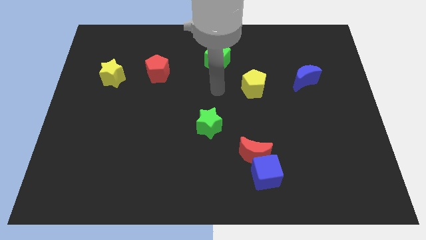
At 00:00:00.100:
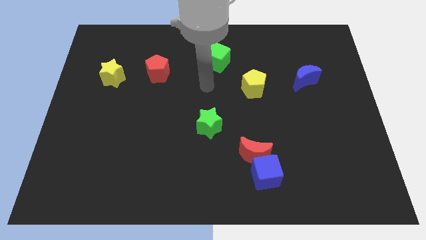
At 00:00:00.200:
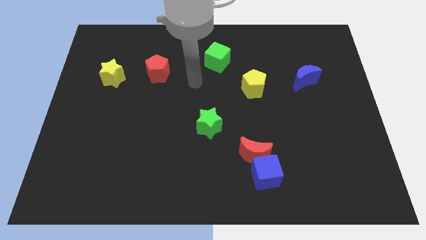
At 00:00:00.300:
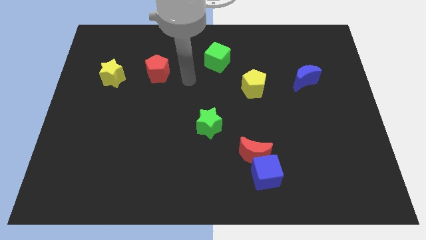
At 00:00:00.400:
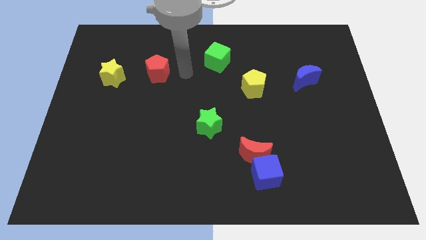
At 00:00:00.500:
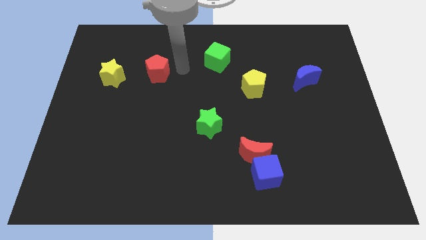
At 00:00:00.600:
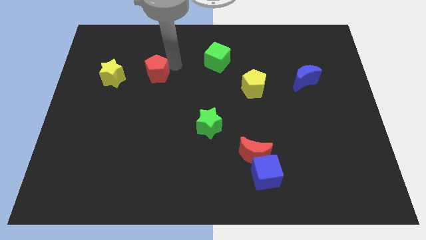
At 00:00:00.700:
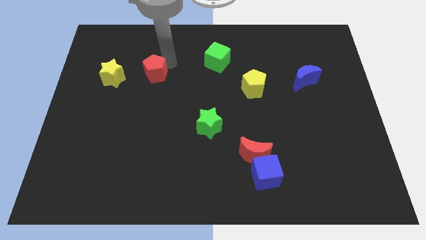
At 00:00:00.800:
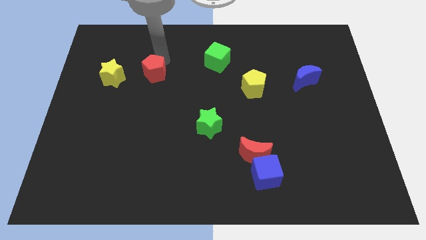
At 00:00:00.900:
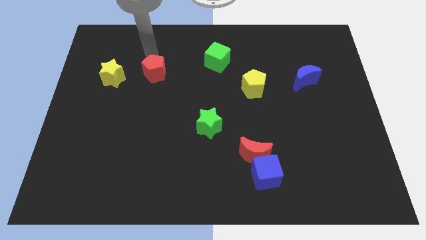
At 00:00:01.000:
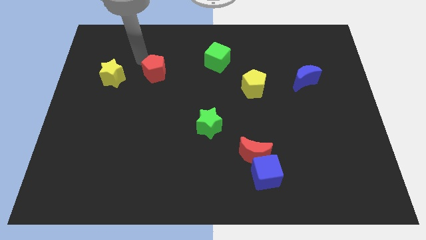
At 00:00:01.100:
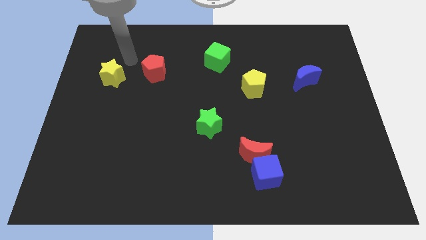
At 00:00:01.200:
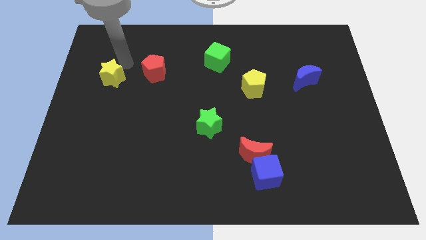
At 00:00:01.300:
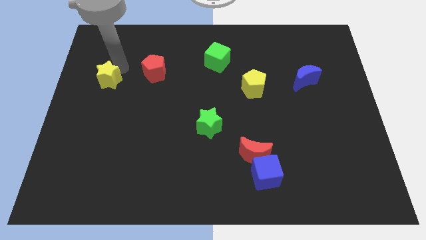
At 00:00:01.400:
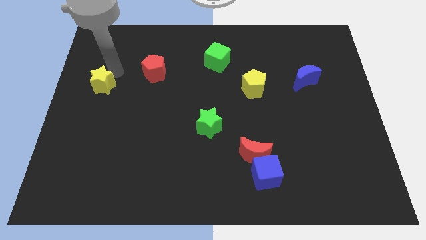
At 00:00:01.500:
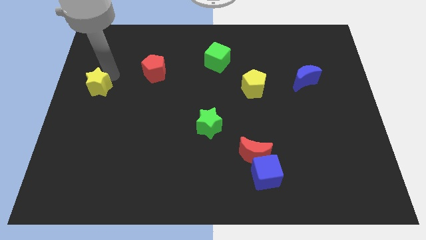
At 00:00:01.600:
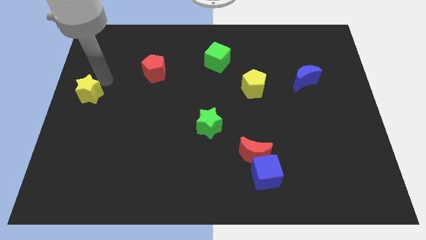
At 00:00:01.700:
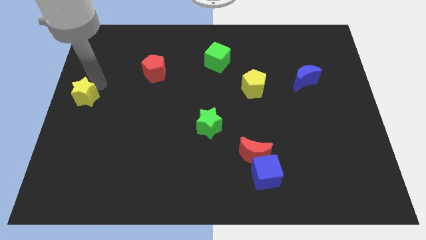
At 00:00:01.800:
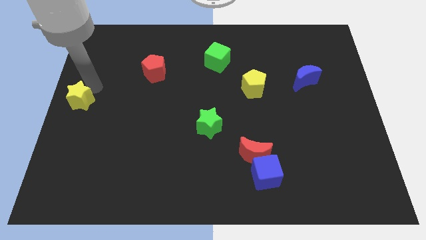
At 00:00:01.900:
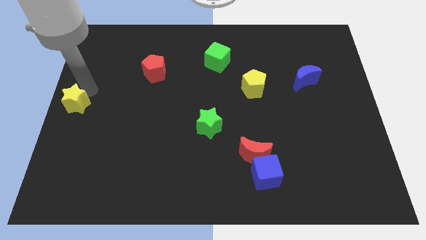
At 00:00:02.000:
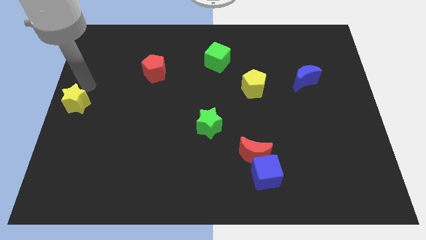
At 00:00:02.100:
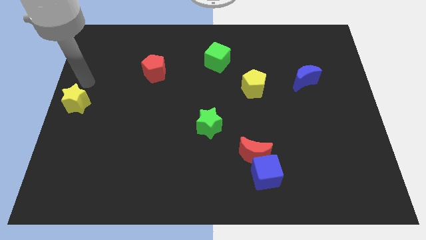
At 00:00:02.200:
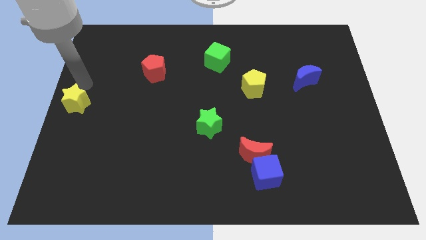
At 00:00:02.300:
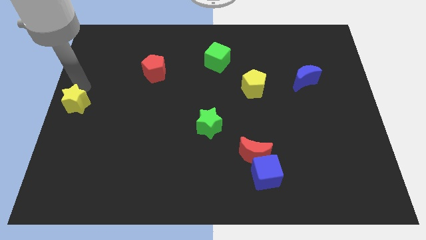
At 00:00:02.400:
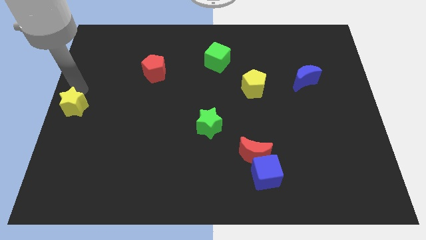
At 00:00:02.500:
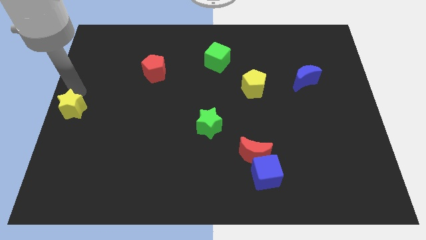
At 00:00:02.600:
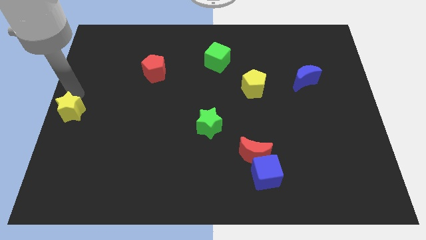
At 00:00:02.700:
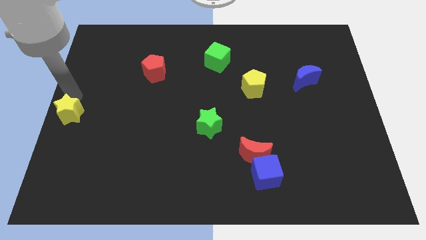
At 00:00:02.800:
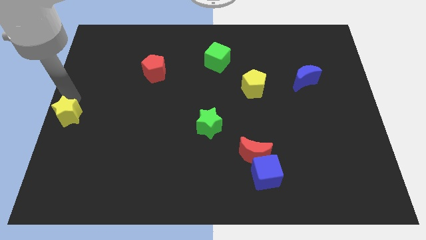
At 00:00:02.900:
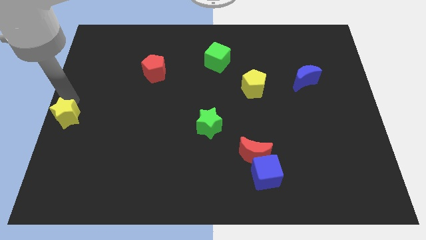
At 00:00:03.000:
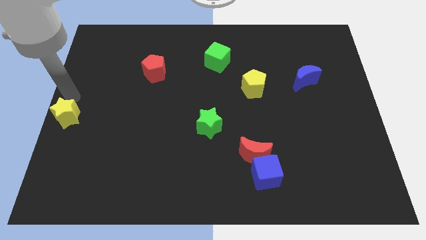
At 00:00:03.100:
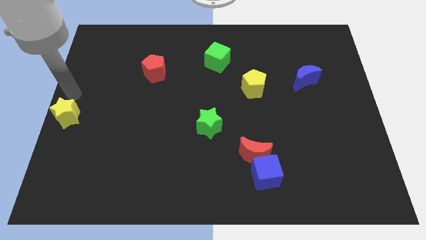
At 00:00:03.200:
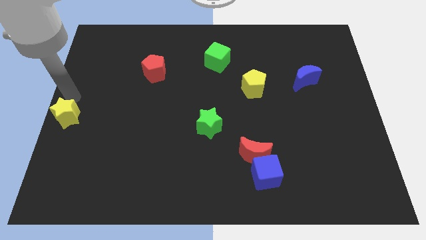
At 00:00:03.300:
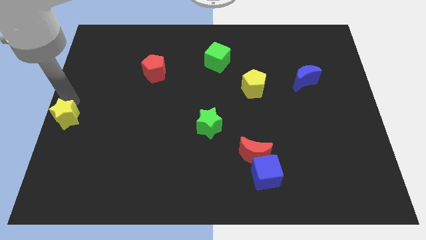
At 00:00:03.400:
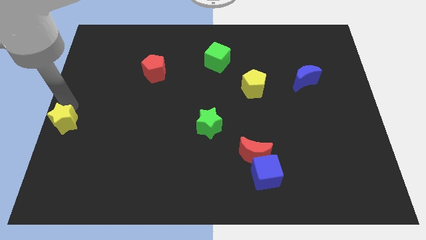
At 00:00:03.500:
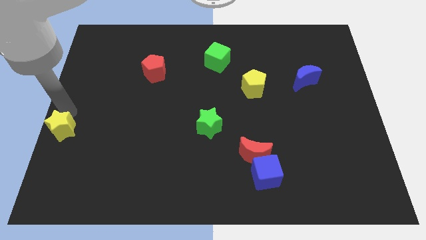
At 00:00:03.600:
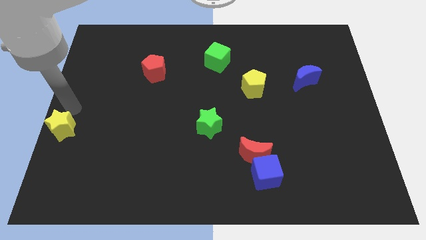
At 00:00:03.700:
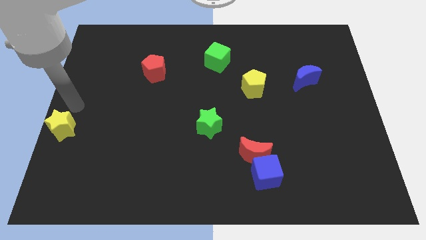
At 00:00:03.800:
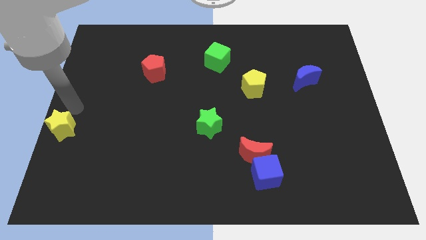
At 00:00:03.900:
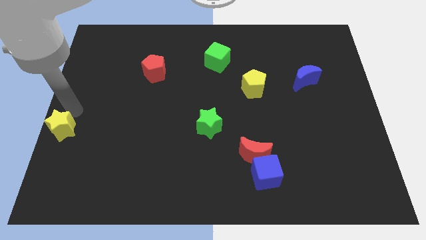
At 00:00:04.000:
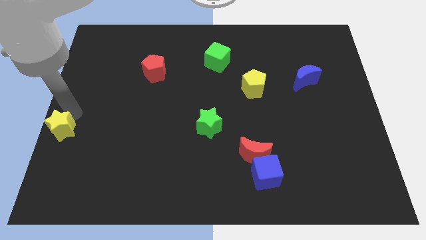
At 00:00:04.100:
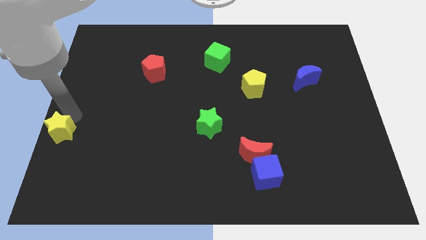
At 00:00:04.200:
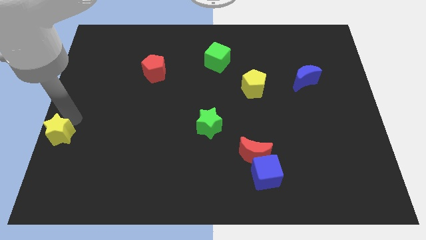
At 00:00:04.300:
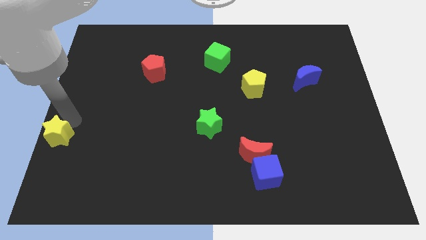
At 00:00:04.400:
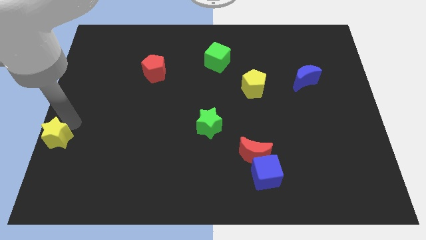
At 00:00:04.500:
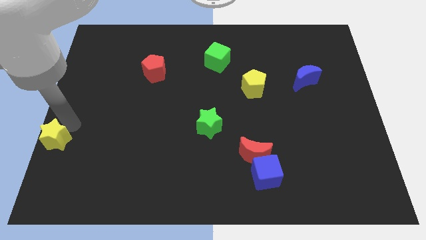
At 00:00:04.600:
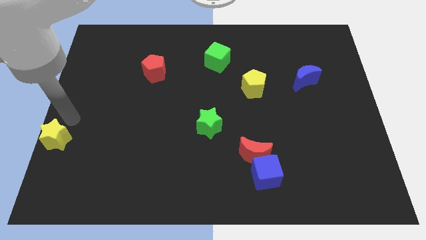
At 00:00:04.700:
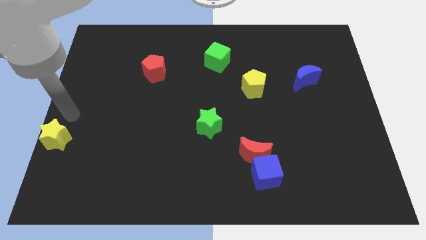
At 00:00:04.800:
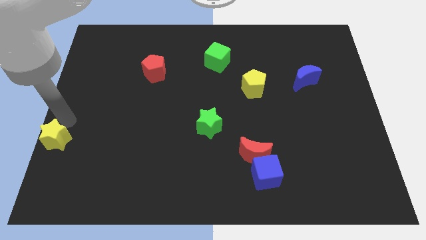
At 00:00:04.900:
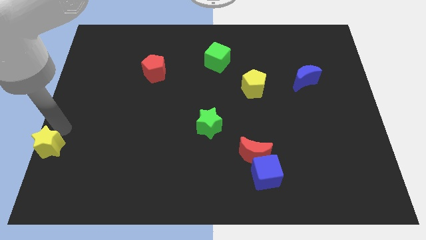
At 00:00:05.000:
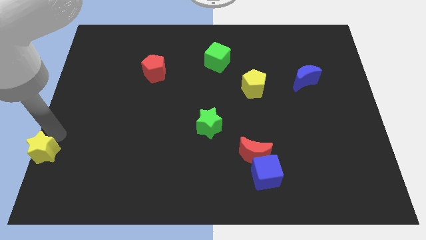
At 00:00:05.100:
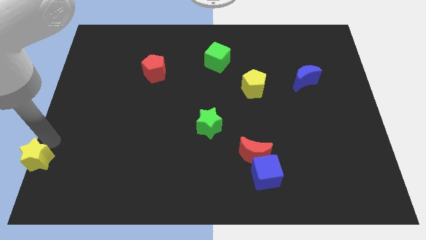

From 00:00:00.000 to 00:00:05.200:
put the yellow star to the bottom left
